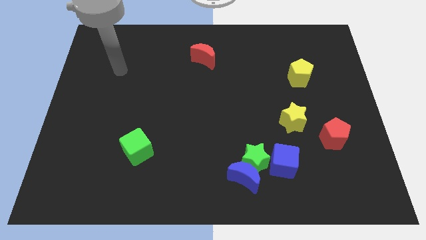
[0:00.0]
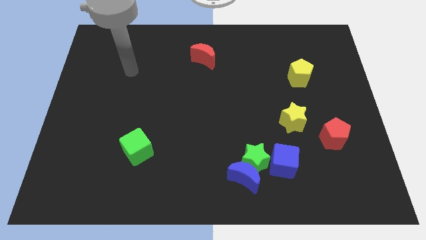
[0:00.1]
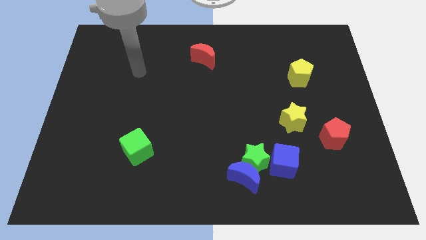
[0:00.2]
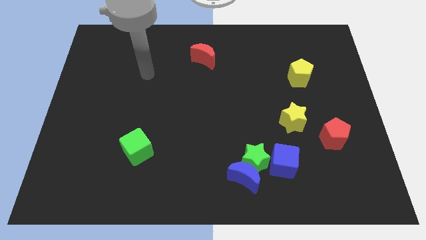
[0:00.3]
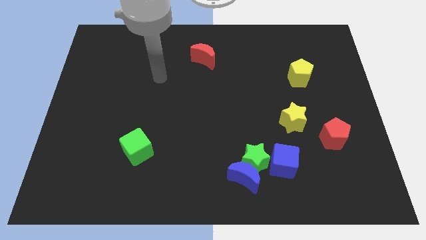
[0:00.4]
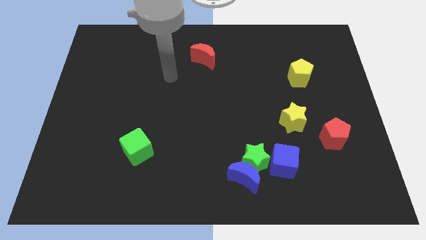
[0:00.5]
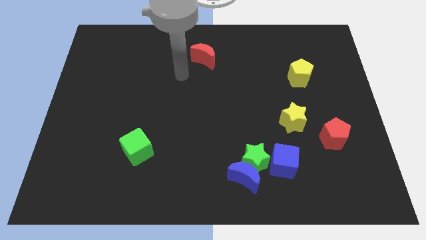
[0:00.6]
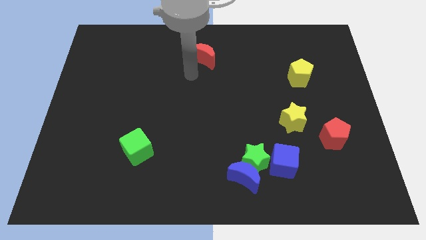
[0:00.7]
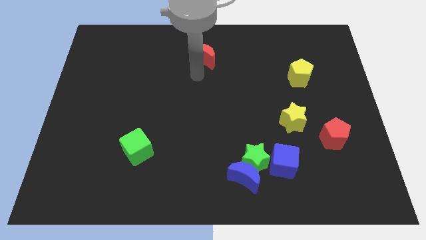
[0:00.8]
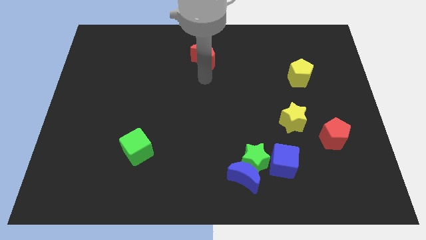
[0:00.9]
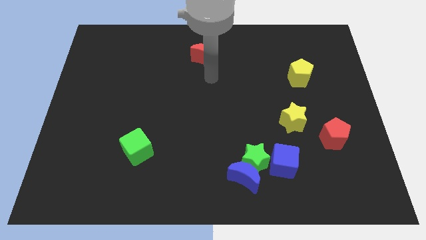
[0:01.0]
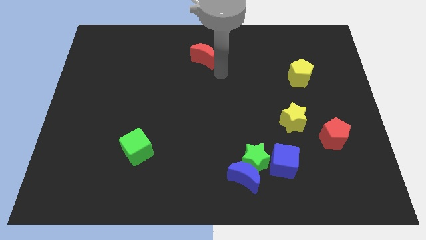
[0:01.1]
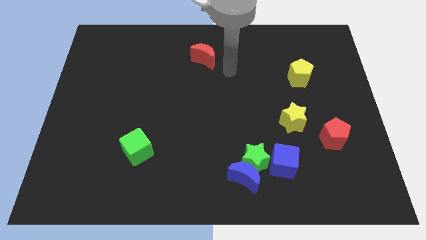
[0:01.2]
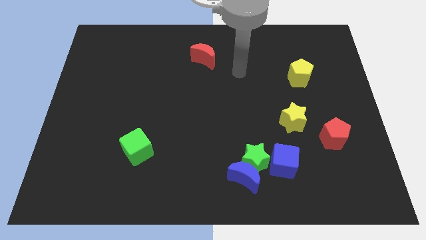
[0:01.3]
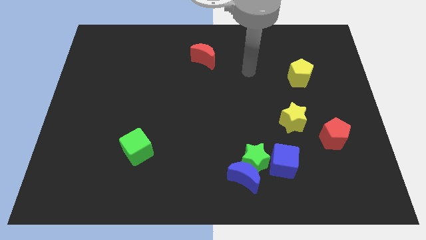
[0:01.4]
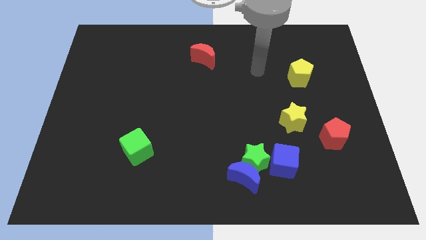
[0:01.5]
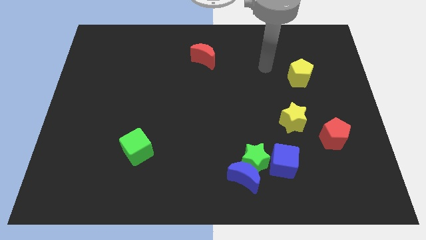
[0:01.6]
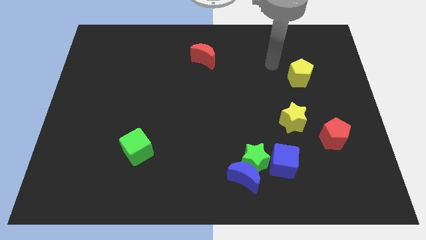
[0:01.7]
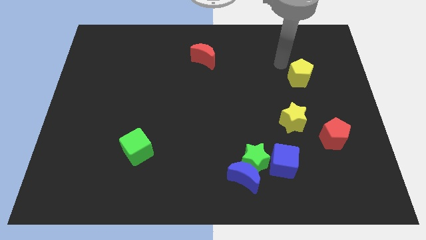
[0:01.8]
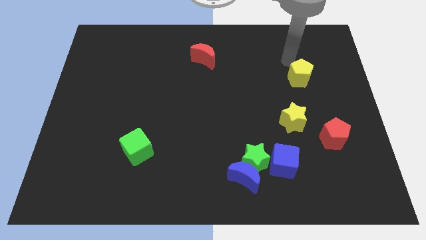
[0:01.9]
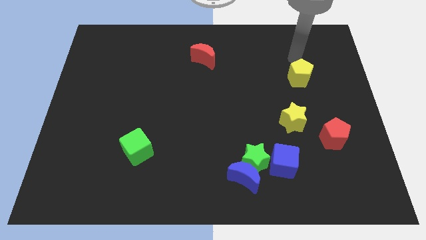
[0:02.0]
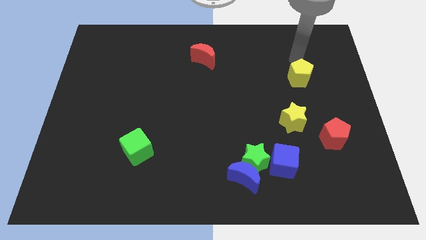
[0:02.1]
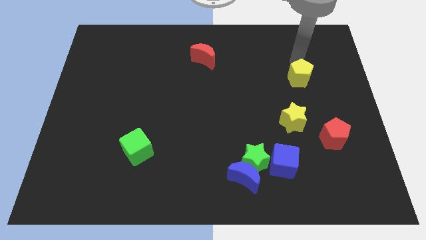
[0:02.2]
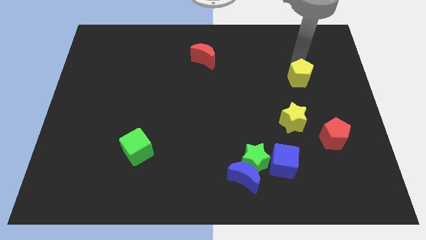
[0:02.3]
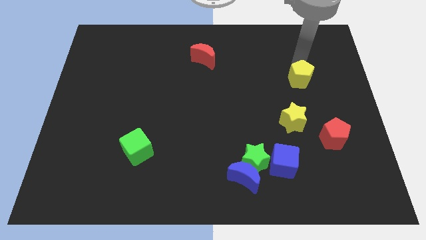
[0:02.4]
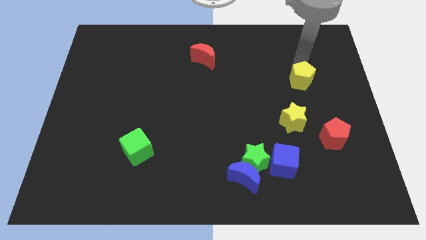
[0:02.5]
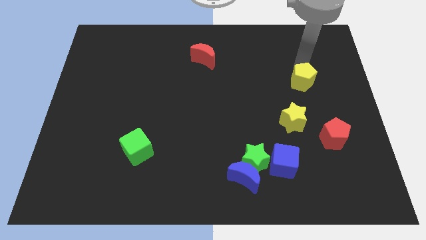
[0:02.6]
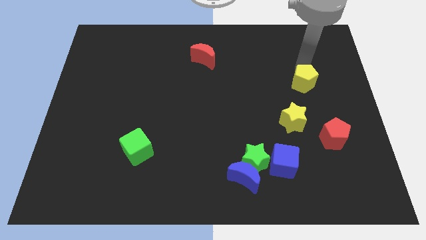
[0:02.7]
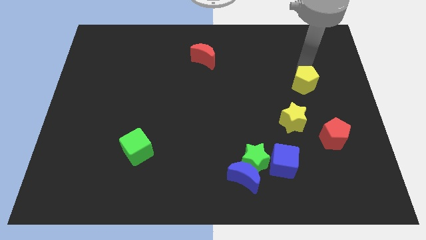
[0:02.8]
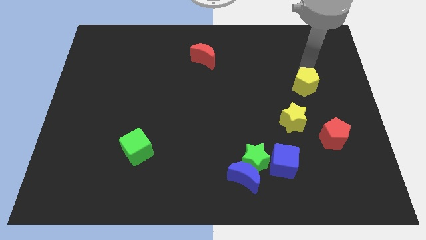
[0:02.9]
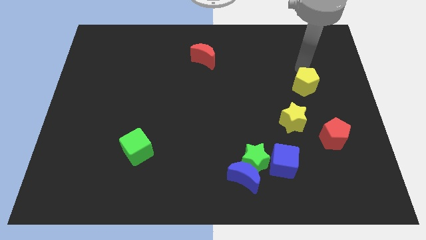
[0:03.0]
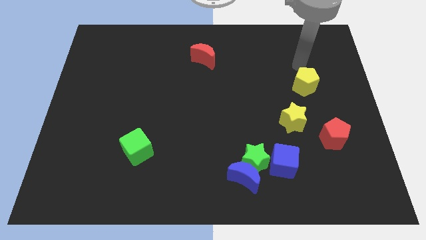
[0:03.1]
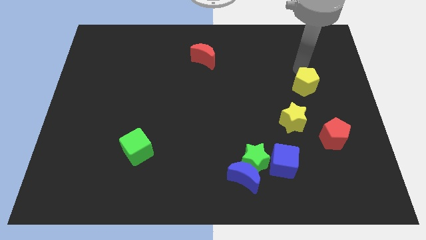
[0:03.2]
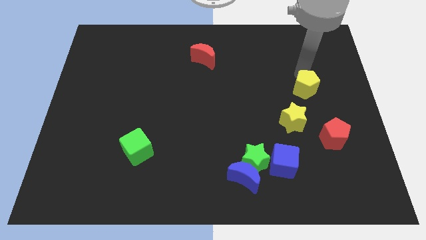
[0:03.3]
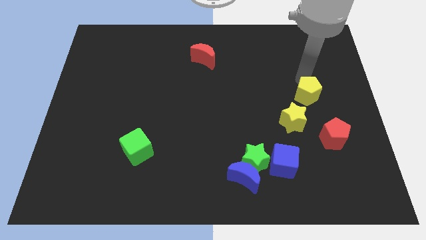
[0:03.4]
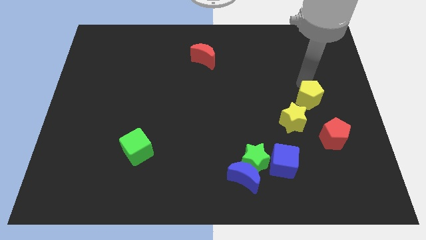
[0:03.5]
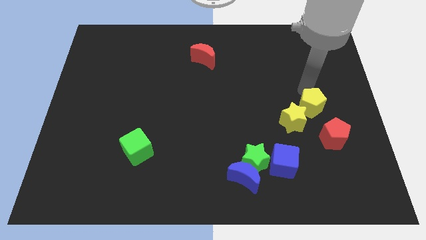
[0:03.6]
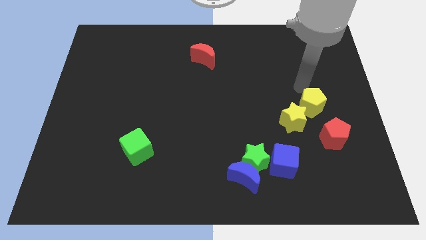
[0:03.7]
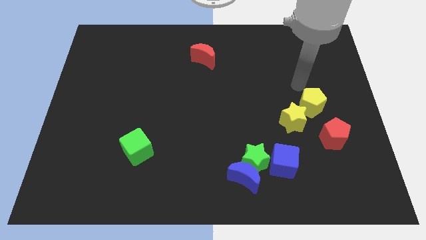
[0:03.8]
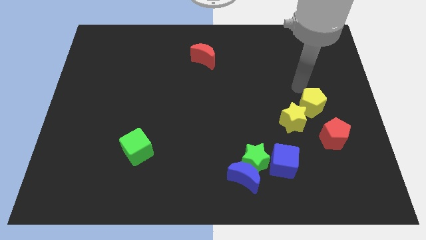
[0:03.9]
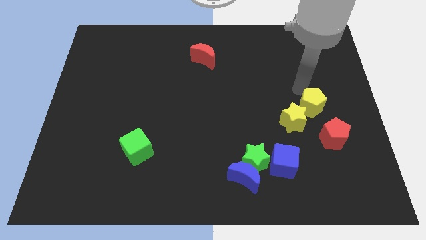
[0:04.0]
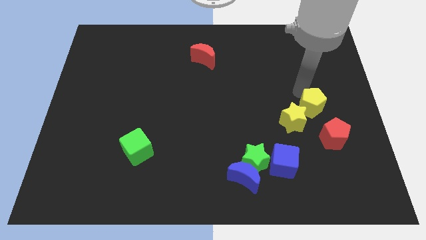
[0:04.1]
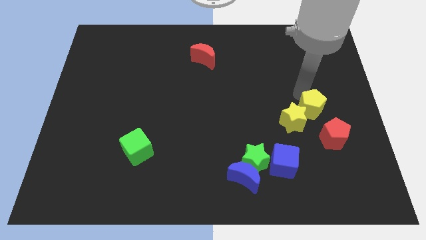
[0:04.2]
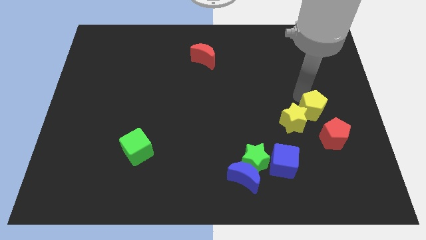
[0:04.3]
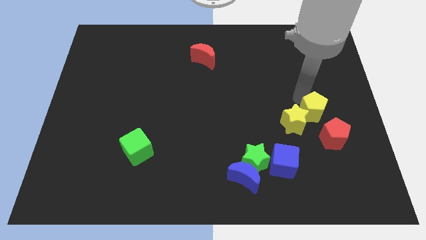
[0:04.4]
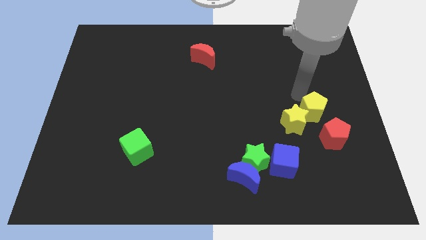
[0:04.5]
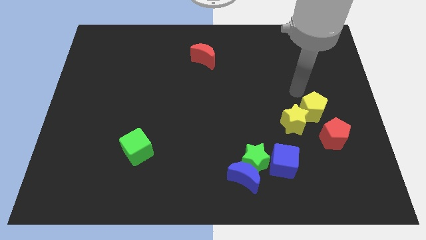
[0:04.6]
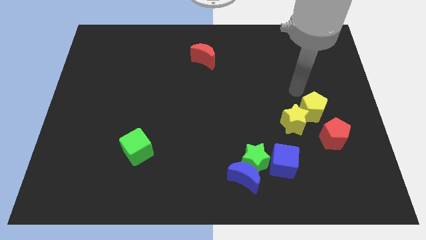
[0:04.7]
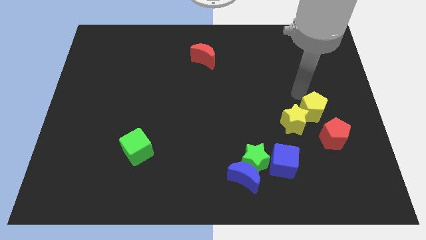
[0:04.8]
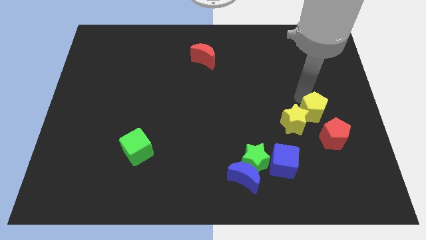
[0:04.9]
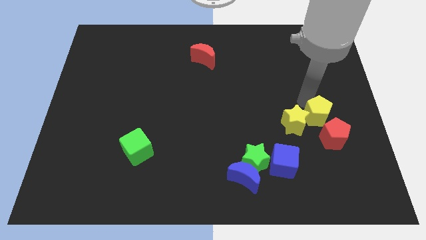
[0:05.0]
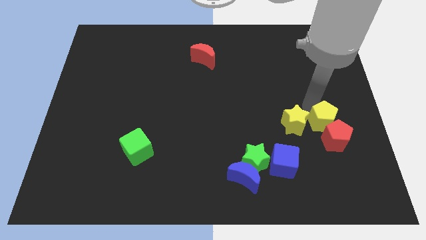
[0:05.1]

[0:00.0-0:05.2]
put the yellow pentagon towards the red pentagon

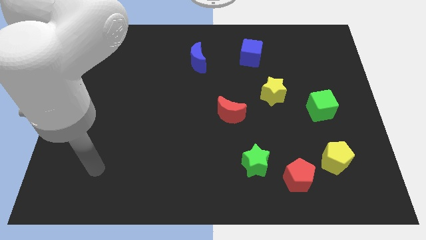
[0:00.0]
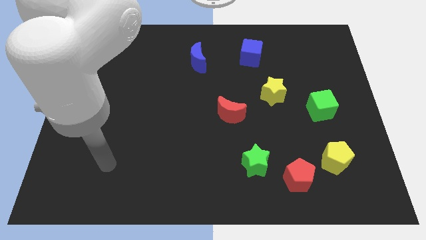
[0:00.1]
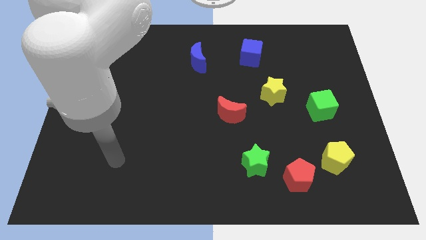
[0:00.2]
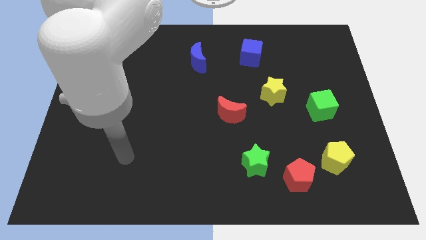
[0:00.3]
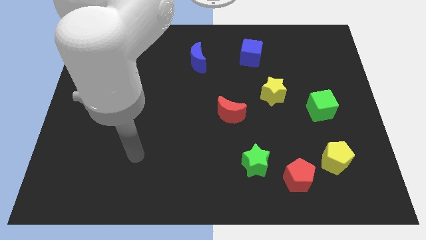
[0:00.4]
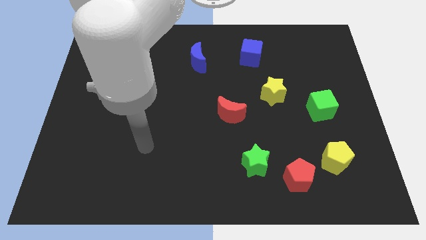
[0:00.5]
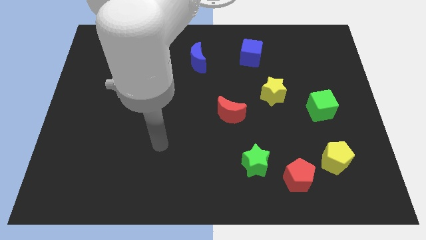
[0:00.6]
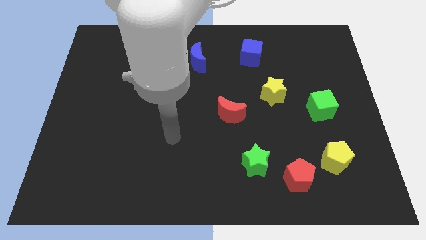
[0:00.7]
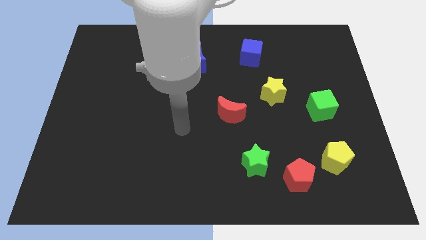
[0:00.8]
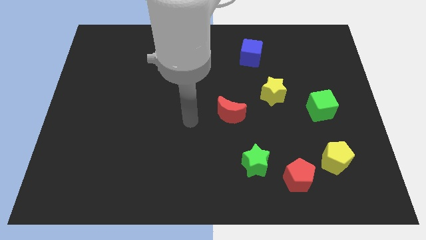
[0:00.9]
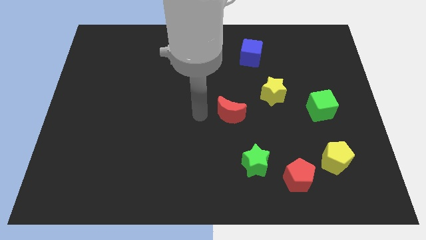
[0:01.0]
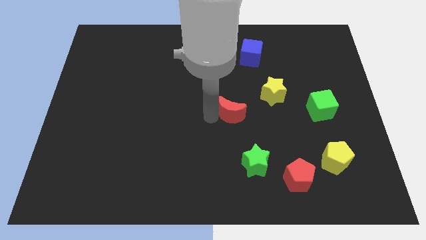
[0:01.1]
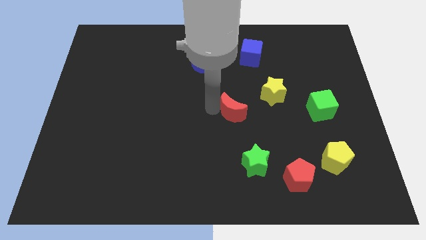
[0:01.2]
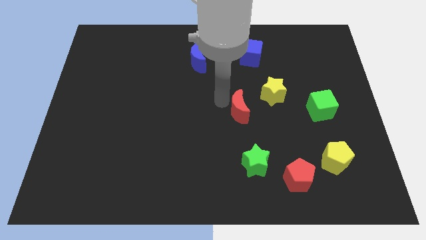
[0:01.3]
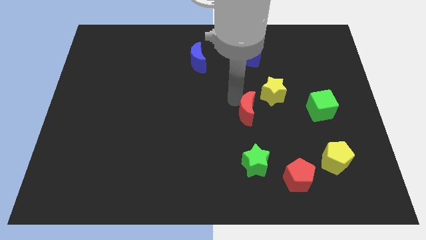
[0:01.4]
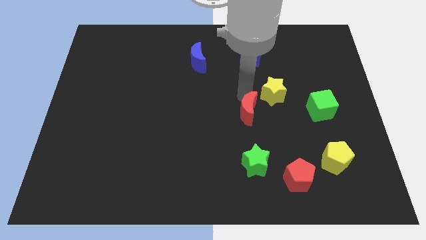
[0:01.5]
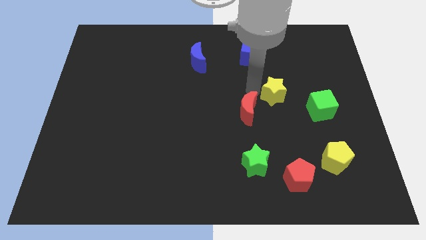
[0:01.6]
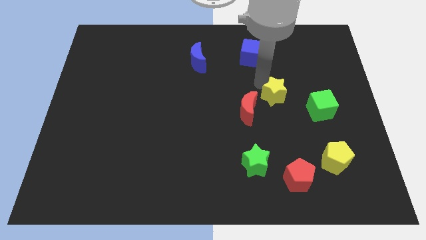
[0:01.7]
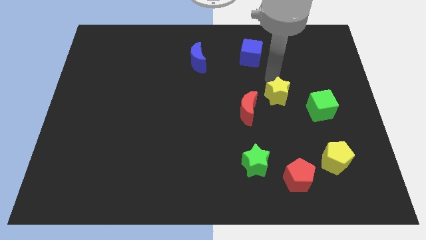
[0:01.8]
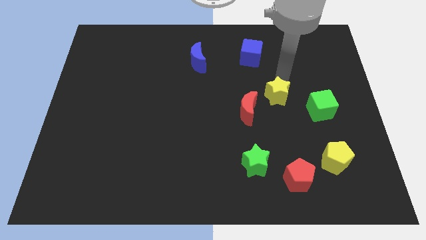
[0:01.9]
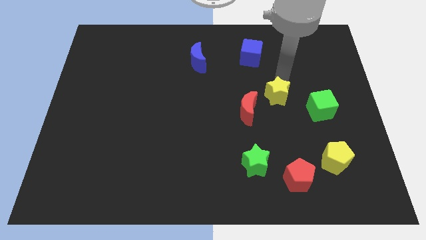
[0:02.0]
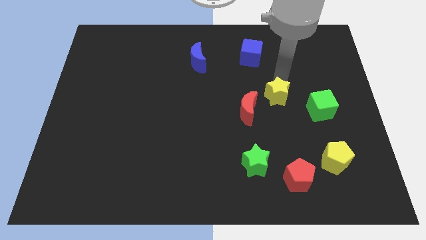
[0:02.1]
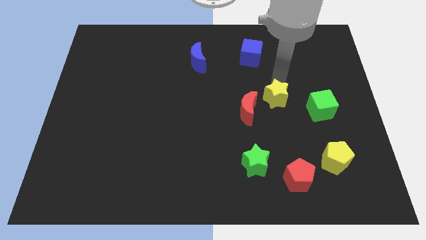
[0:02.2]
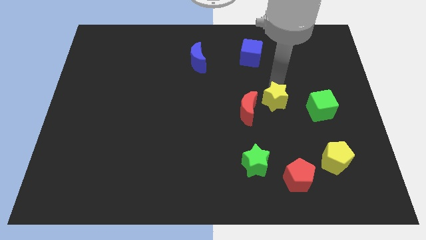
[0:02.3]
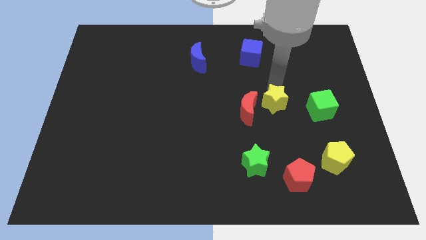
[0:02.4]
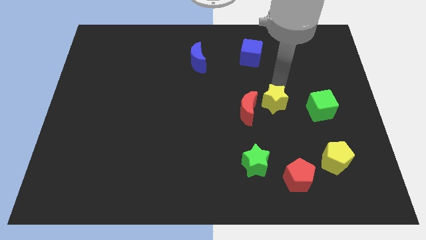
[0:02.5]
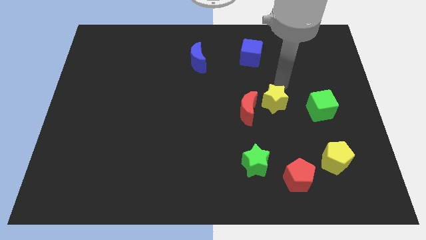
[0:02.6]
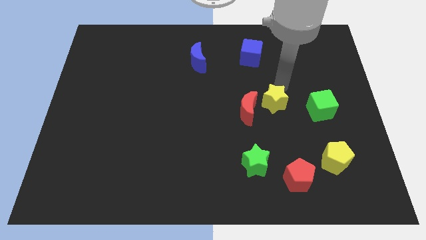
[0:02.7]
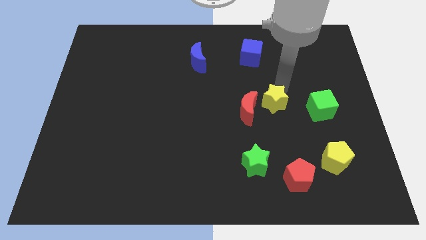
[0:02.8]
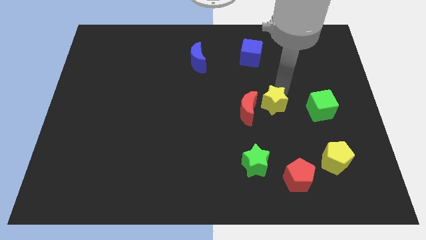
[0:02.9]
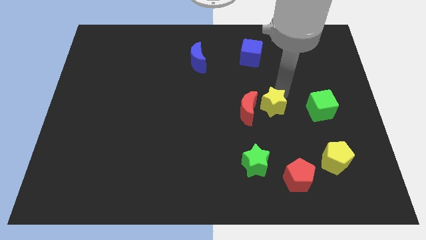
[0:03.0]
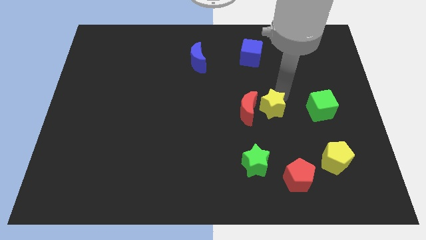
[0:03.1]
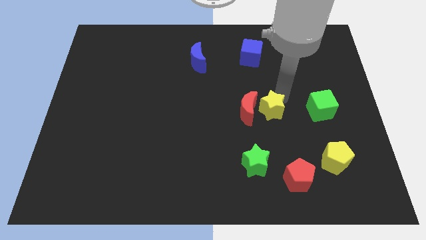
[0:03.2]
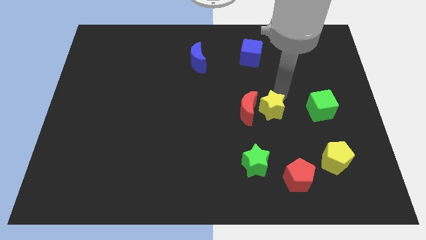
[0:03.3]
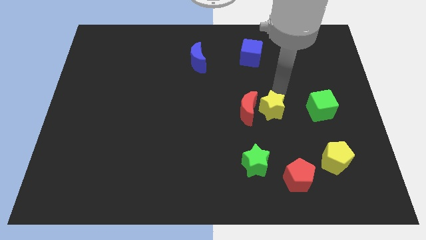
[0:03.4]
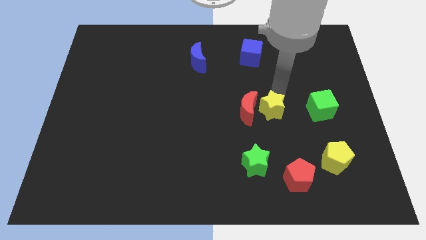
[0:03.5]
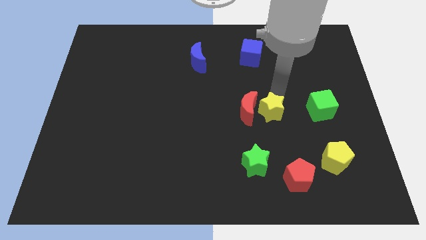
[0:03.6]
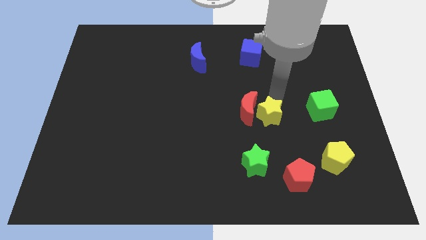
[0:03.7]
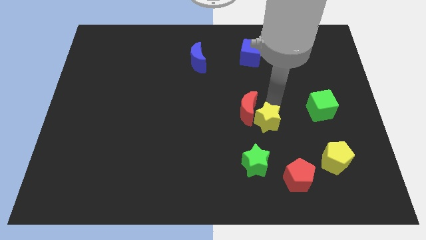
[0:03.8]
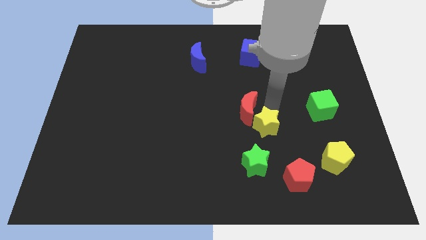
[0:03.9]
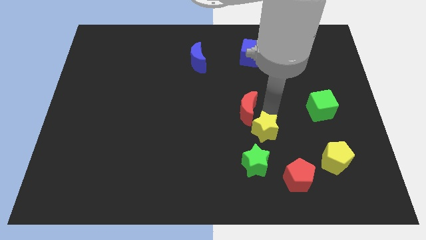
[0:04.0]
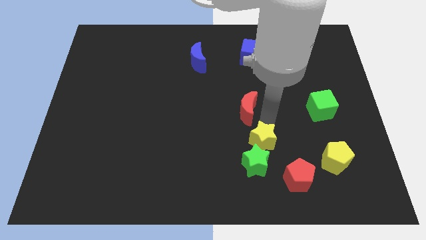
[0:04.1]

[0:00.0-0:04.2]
move the yellow star to the green star
